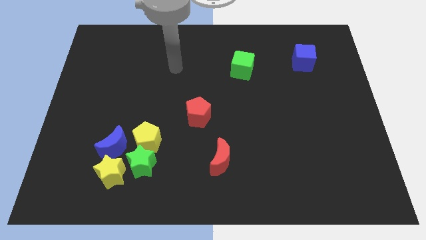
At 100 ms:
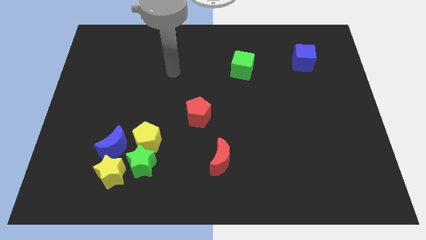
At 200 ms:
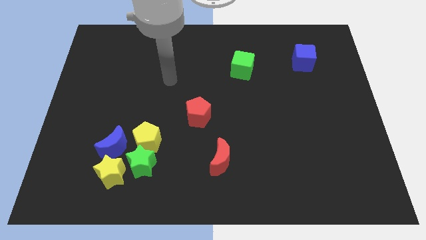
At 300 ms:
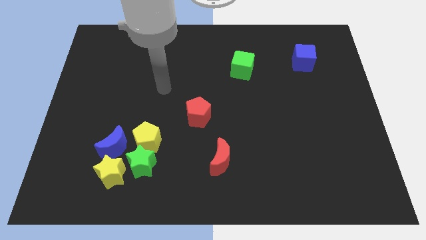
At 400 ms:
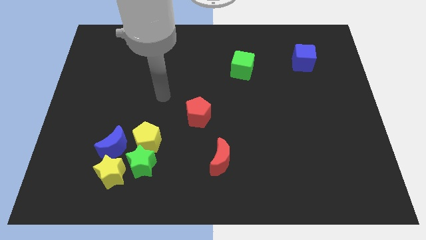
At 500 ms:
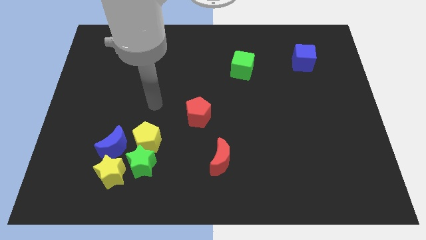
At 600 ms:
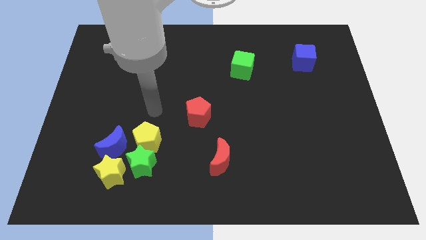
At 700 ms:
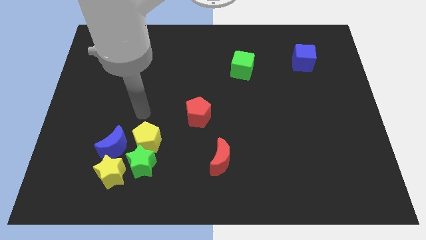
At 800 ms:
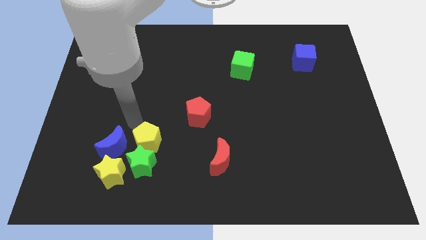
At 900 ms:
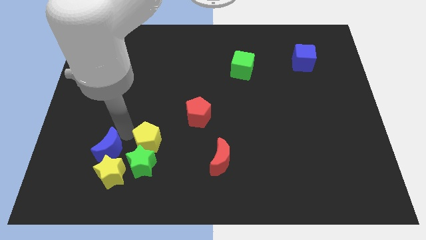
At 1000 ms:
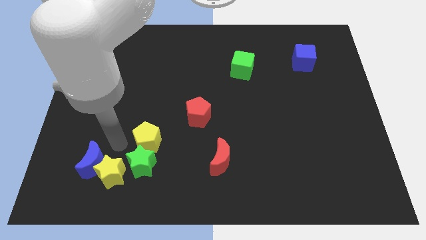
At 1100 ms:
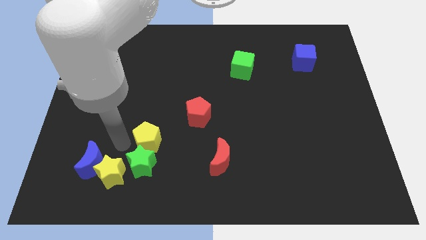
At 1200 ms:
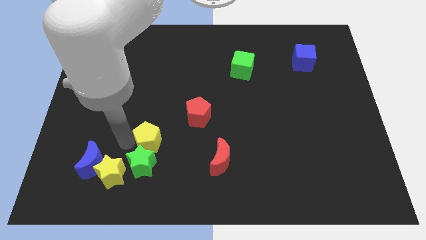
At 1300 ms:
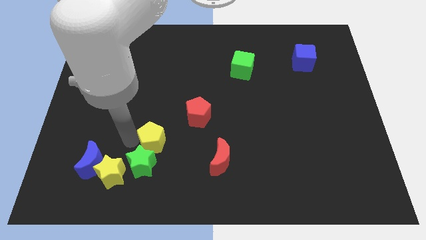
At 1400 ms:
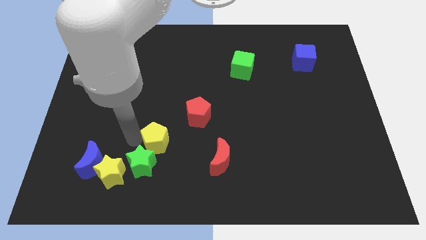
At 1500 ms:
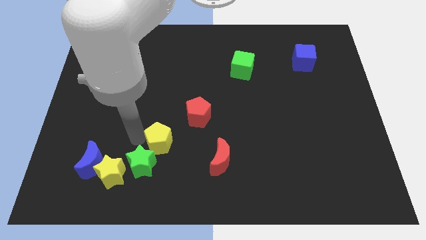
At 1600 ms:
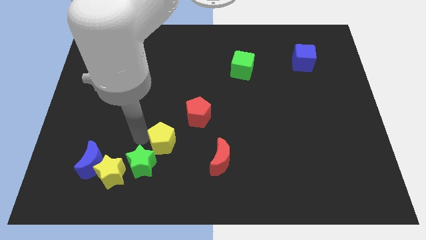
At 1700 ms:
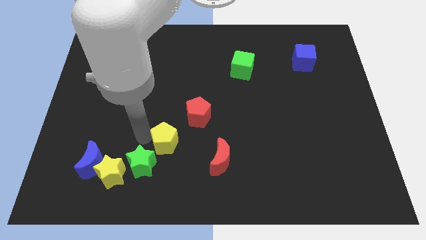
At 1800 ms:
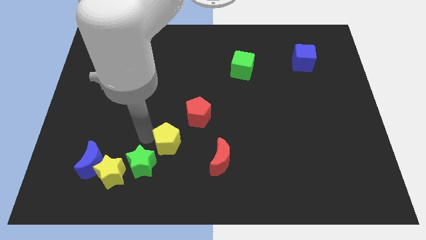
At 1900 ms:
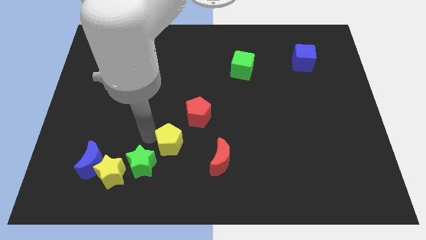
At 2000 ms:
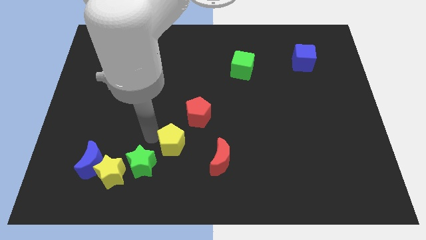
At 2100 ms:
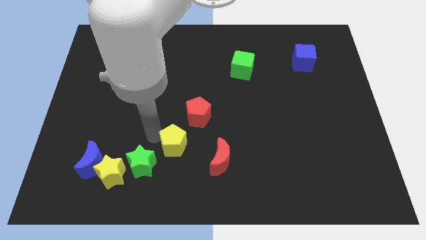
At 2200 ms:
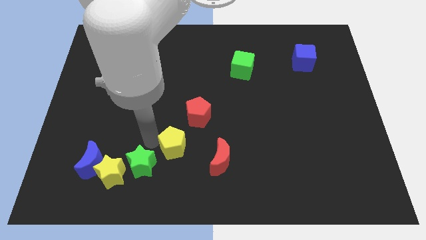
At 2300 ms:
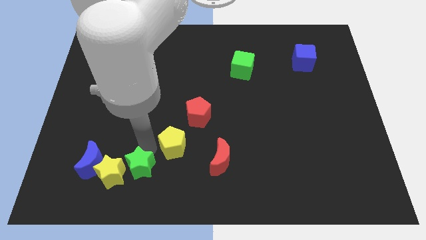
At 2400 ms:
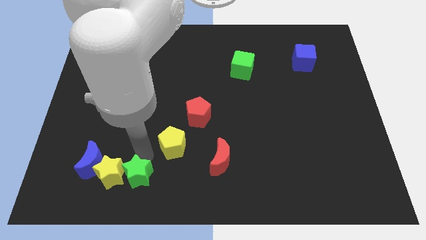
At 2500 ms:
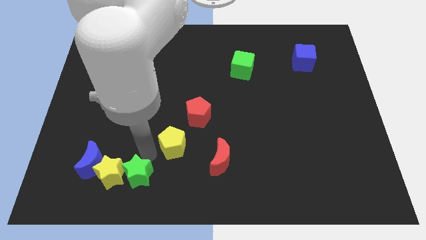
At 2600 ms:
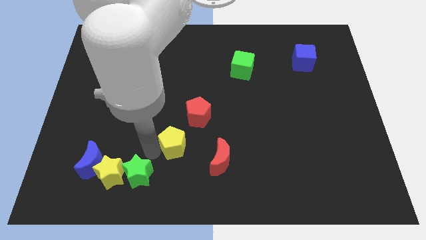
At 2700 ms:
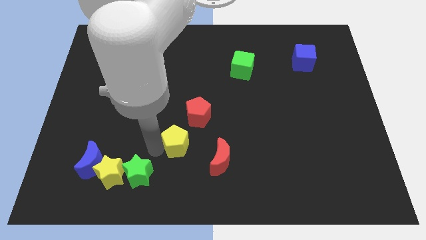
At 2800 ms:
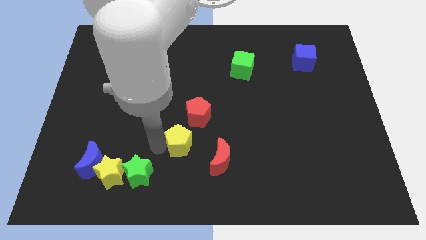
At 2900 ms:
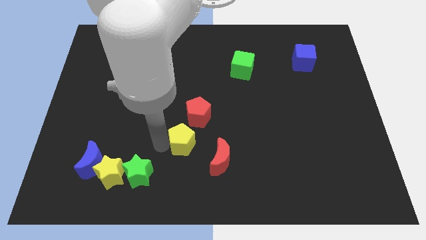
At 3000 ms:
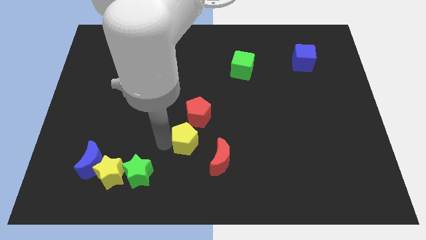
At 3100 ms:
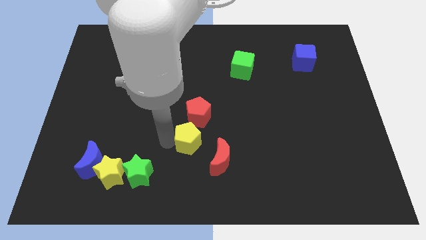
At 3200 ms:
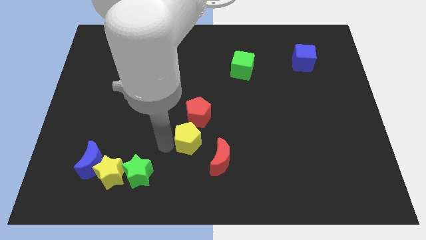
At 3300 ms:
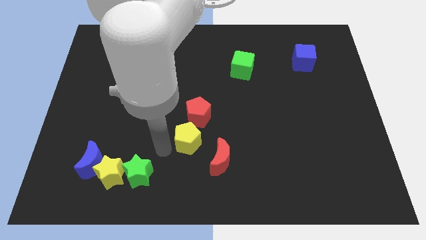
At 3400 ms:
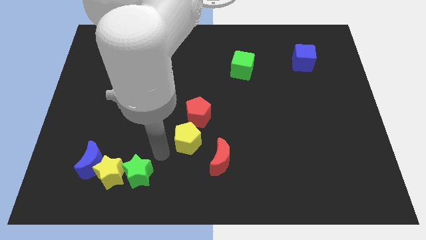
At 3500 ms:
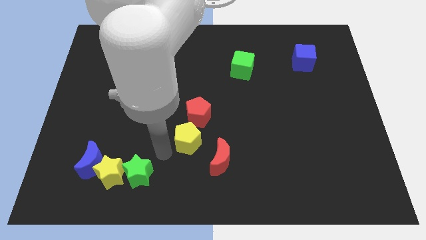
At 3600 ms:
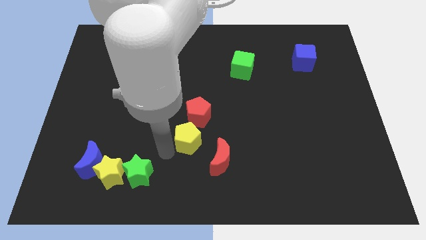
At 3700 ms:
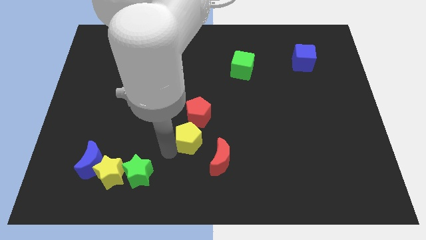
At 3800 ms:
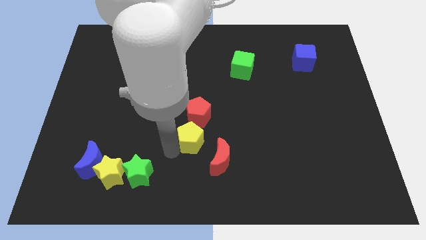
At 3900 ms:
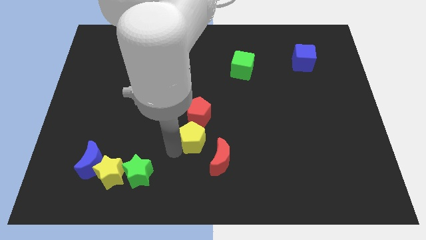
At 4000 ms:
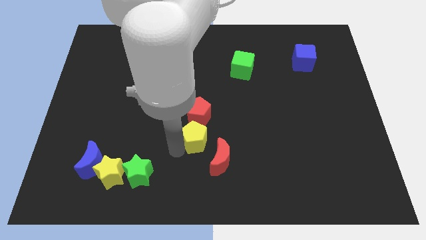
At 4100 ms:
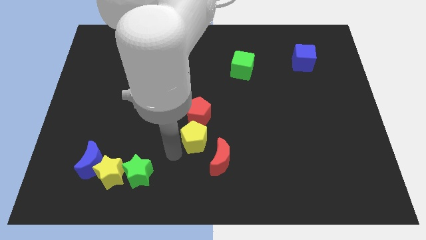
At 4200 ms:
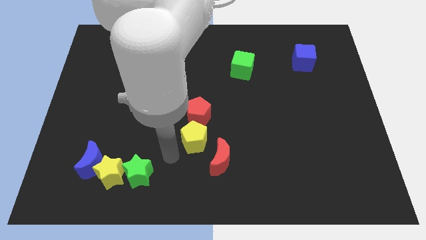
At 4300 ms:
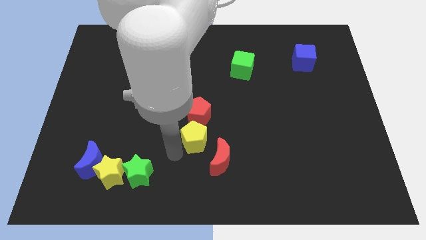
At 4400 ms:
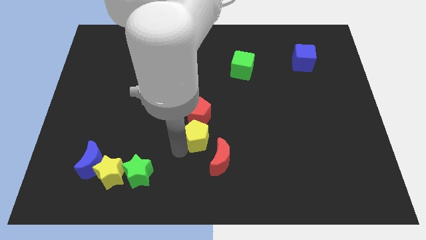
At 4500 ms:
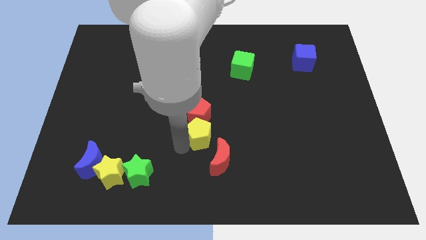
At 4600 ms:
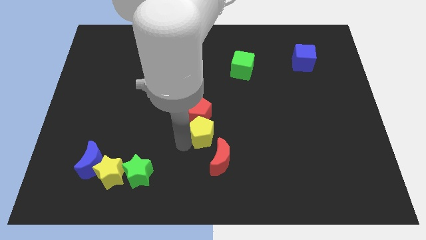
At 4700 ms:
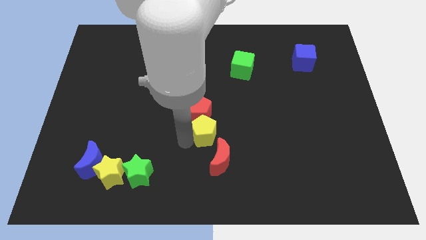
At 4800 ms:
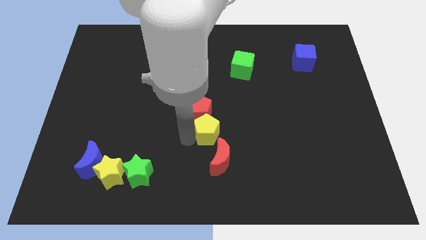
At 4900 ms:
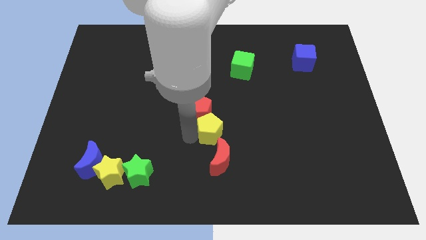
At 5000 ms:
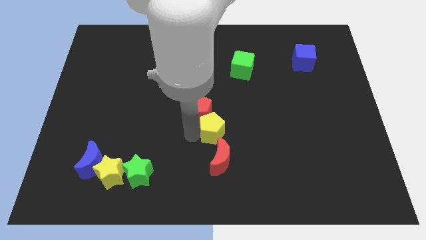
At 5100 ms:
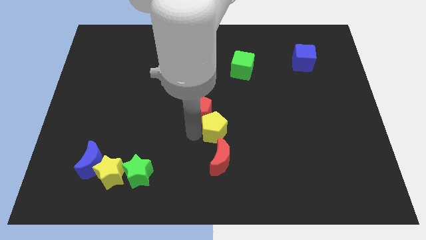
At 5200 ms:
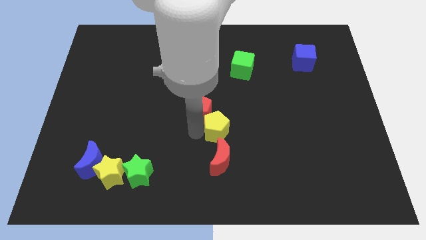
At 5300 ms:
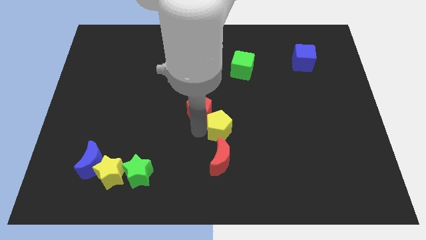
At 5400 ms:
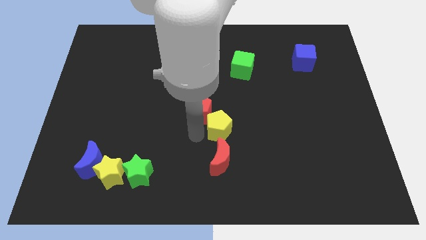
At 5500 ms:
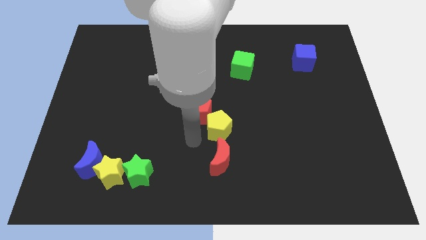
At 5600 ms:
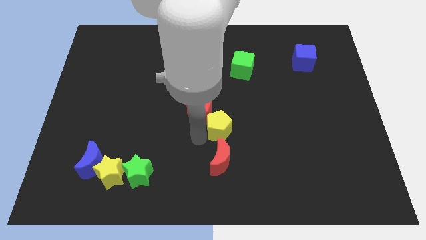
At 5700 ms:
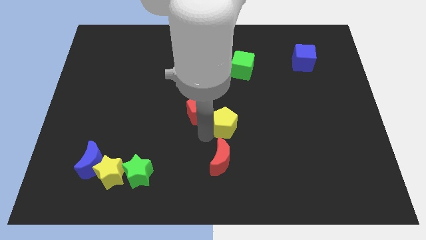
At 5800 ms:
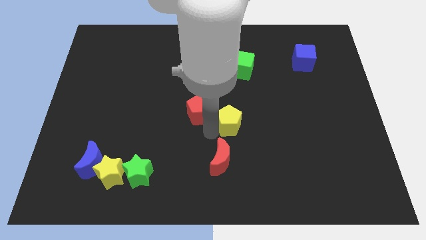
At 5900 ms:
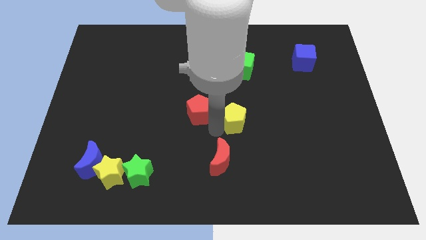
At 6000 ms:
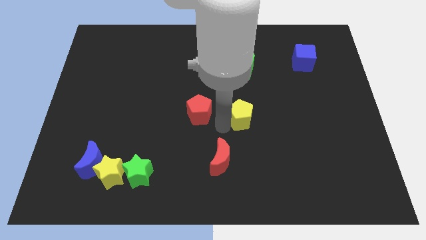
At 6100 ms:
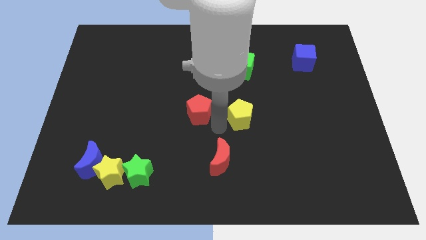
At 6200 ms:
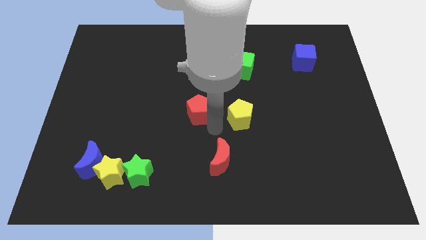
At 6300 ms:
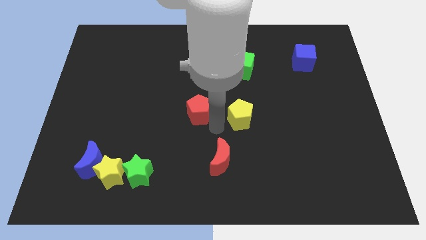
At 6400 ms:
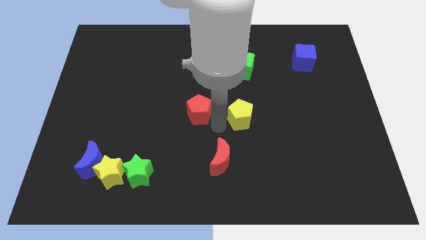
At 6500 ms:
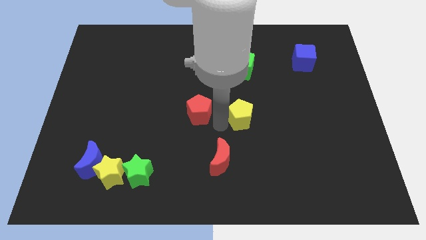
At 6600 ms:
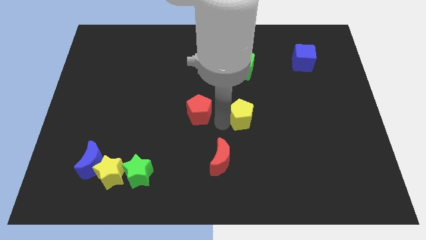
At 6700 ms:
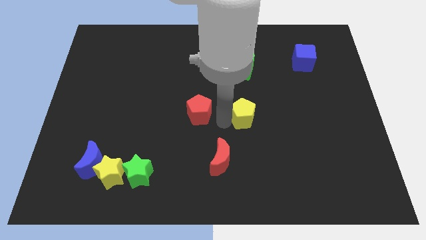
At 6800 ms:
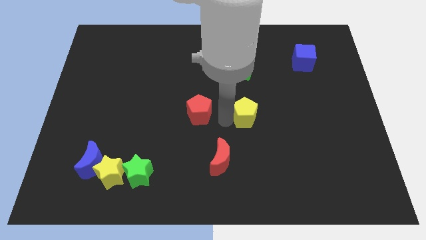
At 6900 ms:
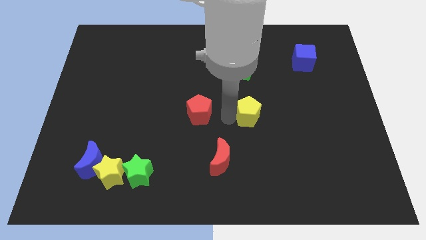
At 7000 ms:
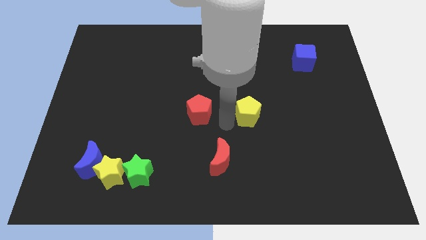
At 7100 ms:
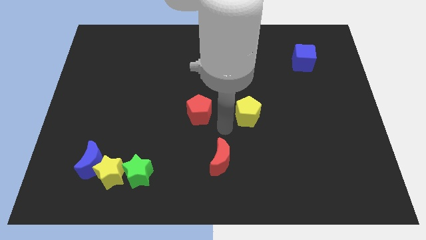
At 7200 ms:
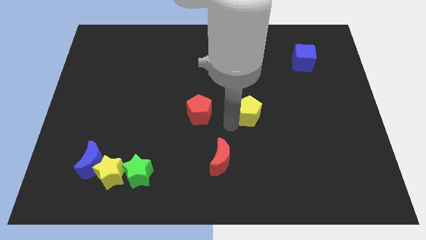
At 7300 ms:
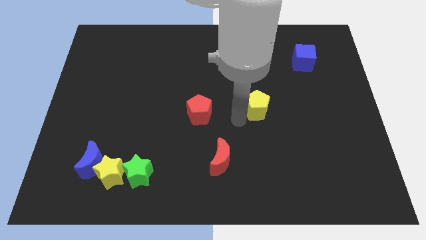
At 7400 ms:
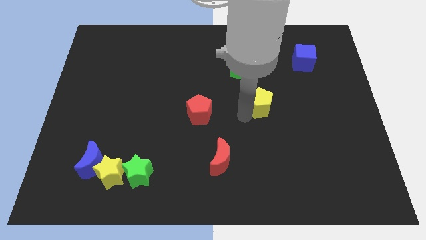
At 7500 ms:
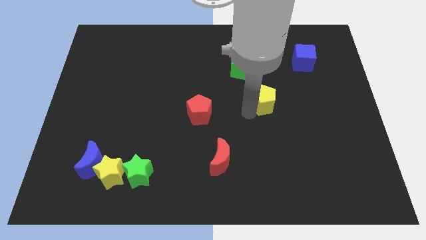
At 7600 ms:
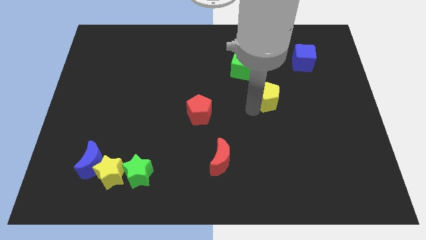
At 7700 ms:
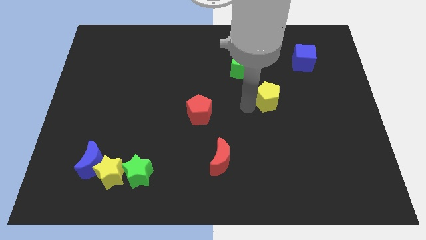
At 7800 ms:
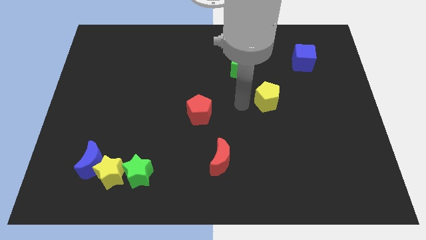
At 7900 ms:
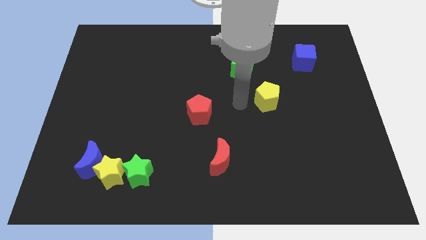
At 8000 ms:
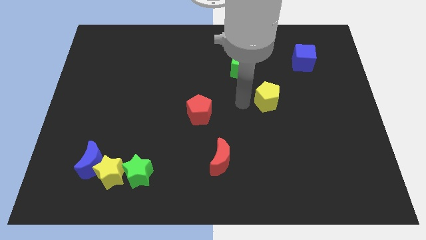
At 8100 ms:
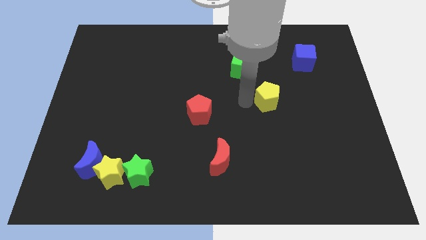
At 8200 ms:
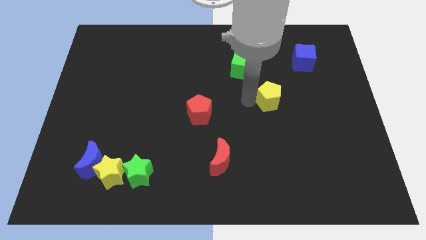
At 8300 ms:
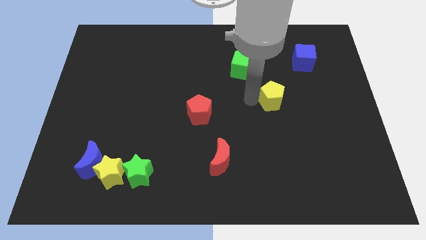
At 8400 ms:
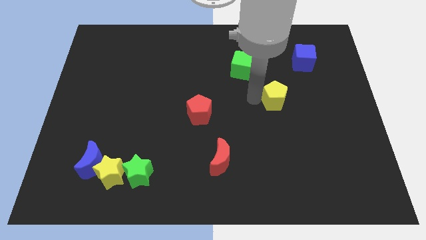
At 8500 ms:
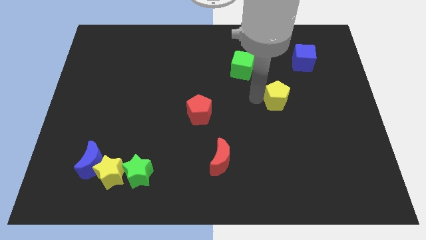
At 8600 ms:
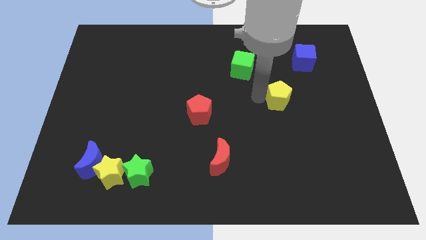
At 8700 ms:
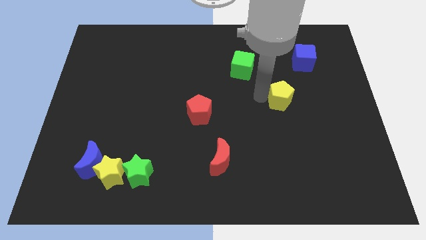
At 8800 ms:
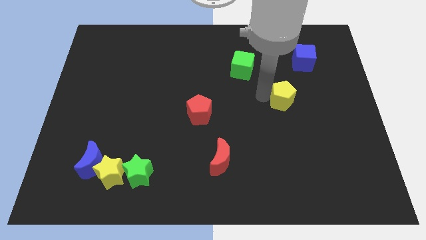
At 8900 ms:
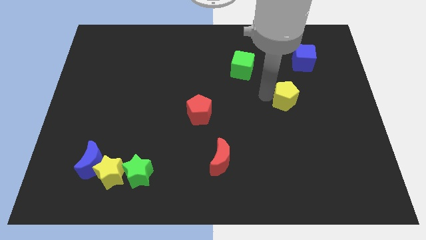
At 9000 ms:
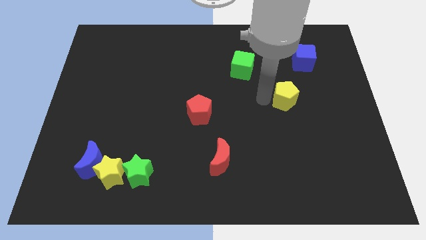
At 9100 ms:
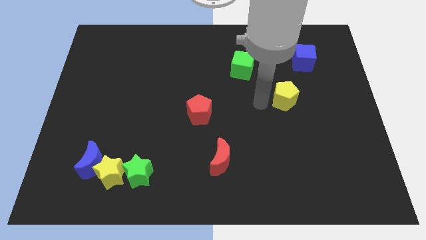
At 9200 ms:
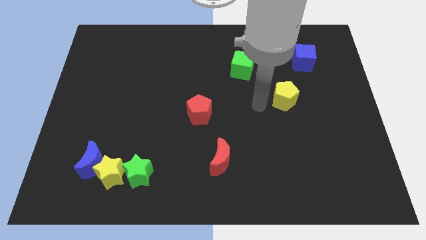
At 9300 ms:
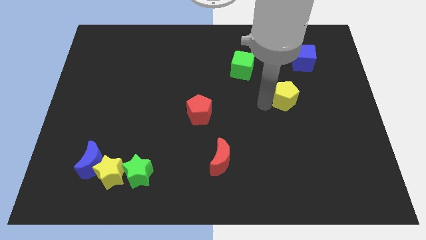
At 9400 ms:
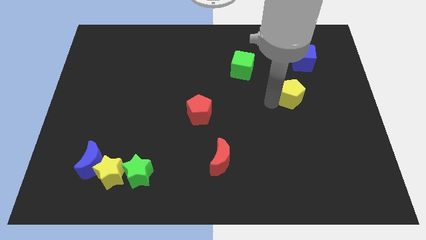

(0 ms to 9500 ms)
move the yellow pentagon below the blue cube
